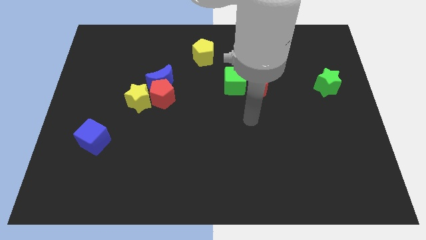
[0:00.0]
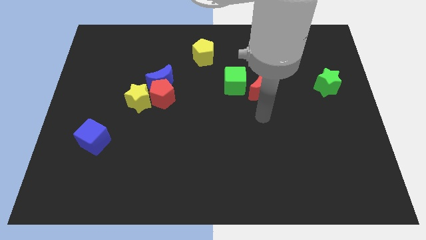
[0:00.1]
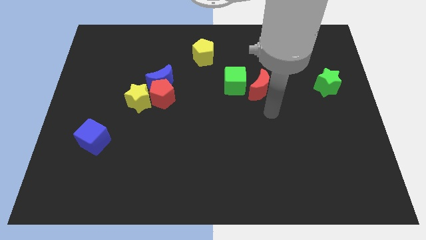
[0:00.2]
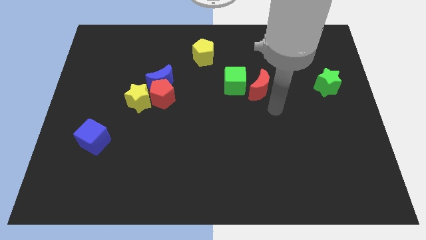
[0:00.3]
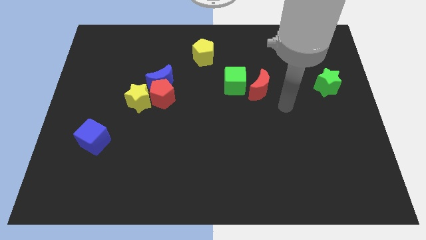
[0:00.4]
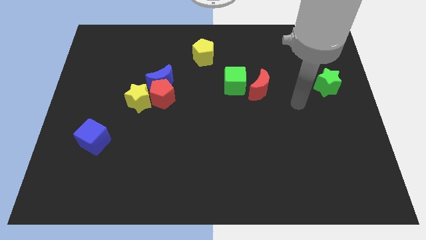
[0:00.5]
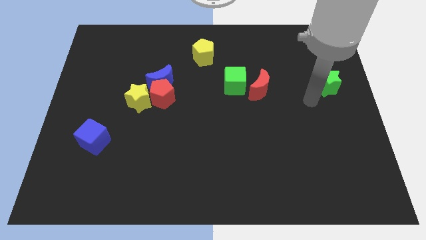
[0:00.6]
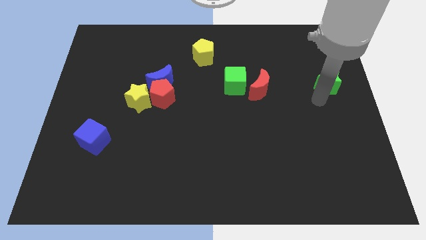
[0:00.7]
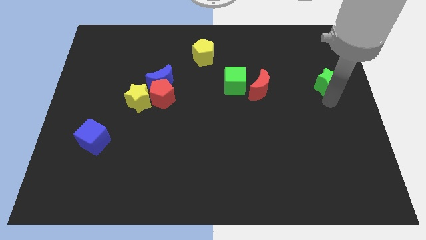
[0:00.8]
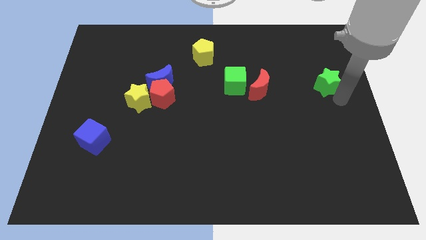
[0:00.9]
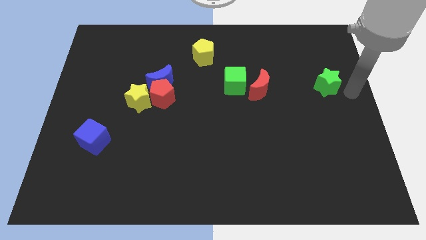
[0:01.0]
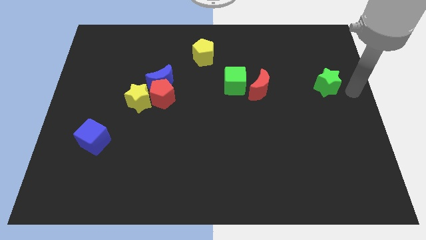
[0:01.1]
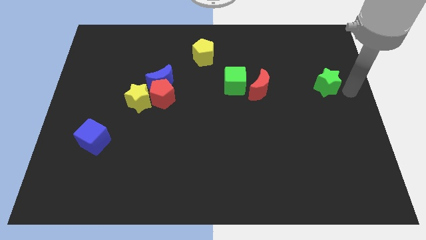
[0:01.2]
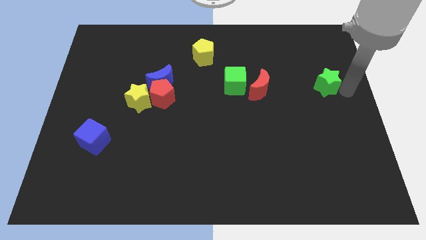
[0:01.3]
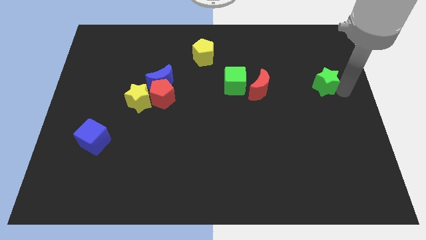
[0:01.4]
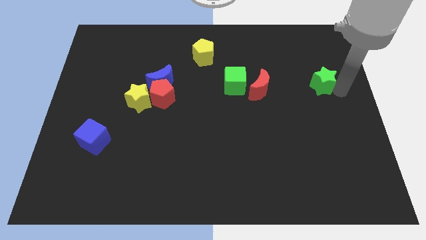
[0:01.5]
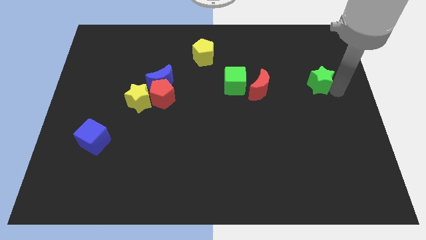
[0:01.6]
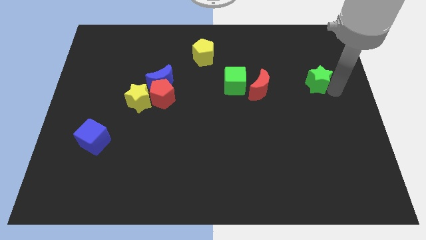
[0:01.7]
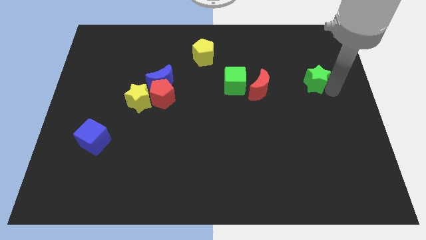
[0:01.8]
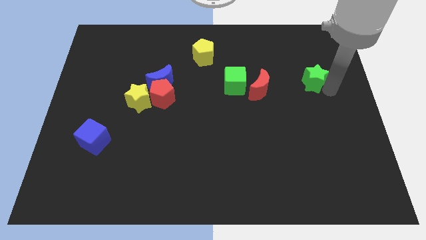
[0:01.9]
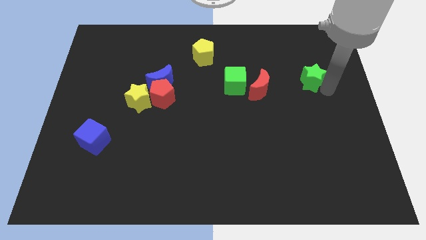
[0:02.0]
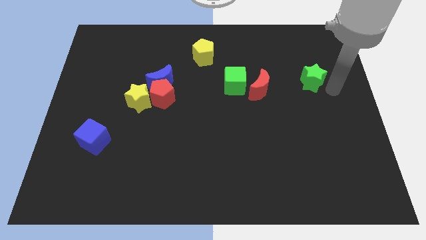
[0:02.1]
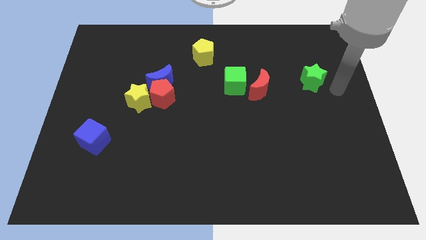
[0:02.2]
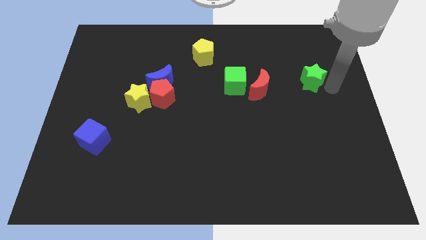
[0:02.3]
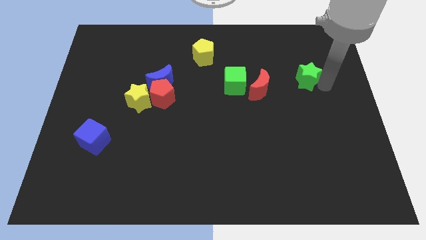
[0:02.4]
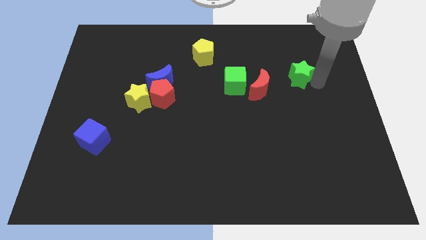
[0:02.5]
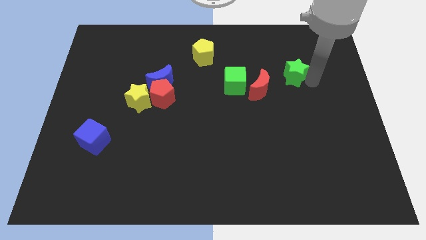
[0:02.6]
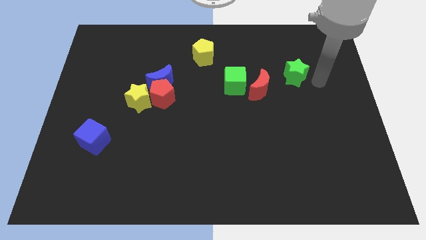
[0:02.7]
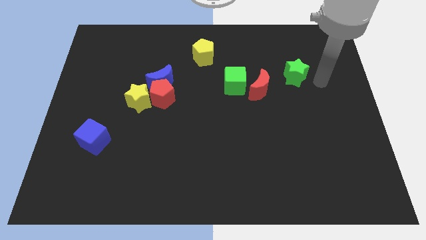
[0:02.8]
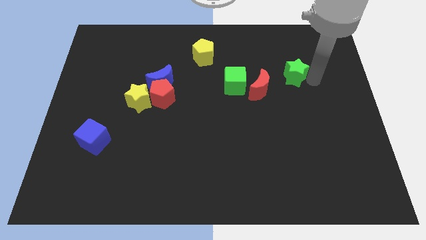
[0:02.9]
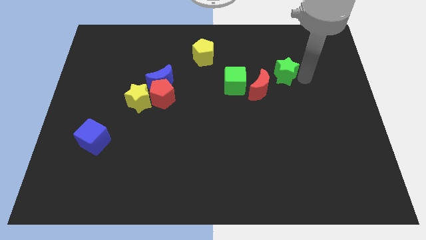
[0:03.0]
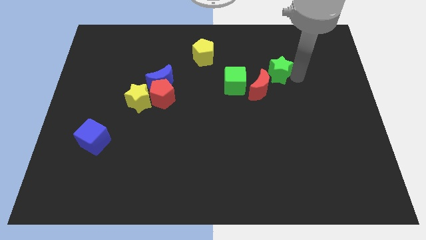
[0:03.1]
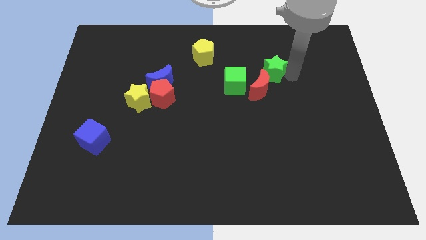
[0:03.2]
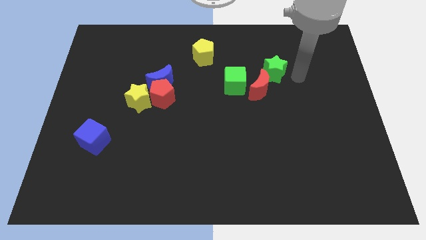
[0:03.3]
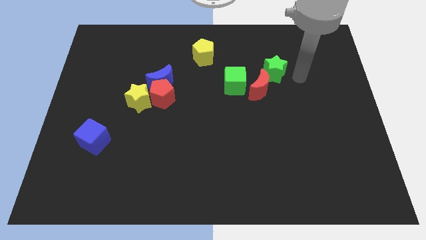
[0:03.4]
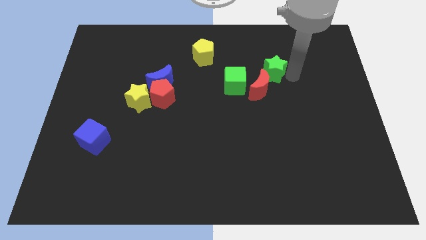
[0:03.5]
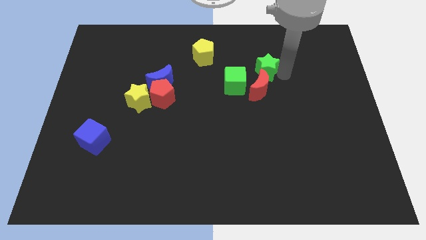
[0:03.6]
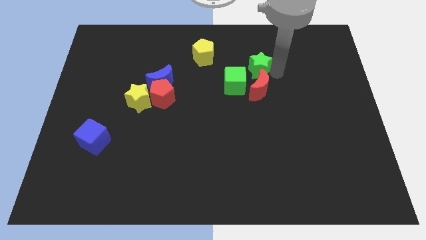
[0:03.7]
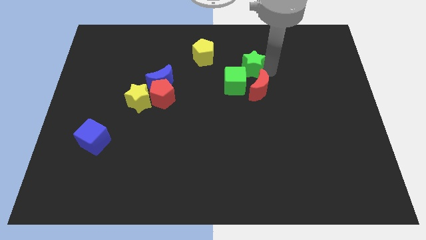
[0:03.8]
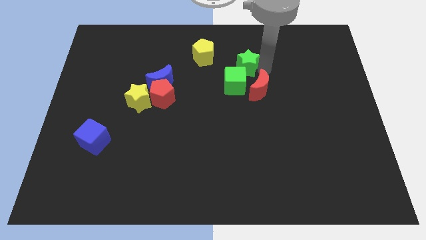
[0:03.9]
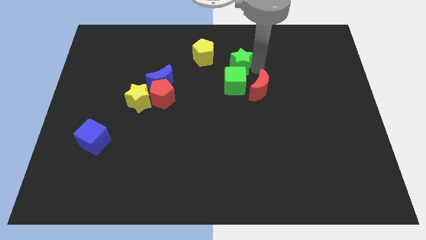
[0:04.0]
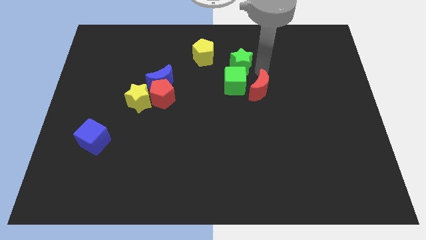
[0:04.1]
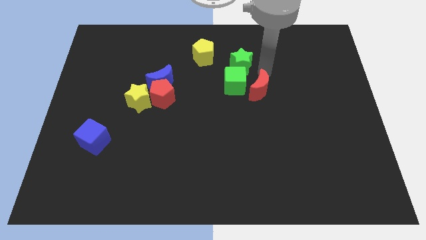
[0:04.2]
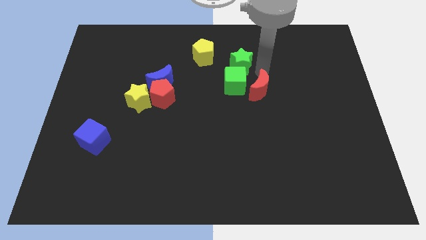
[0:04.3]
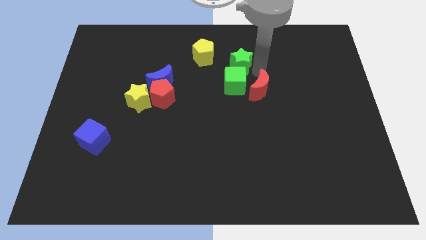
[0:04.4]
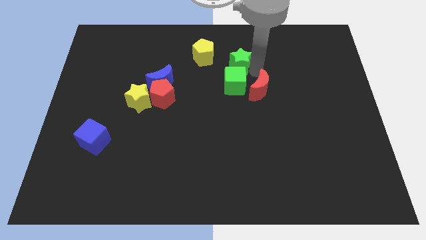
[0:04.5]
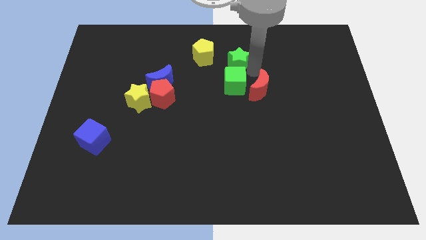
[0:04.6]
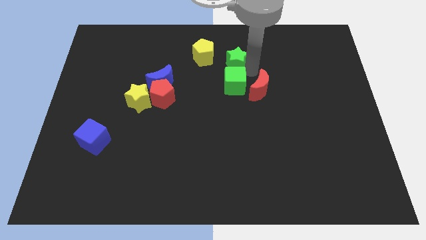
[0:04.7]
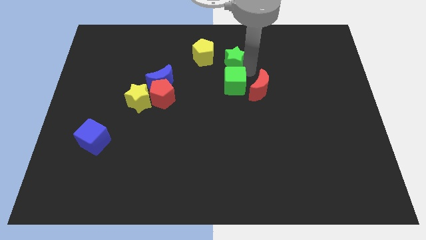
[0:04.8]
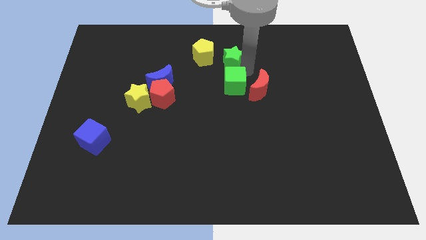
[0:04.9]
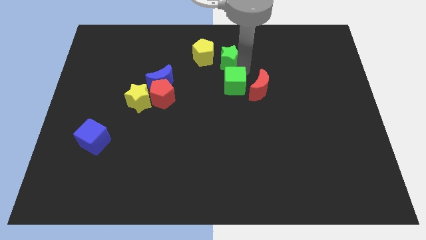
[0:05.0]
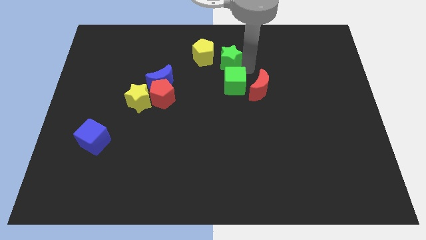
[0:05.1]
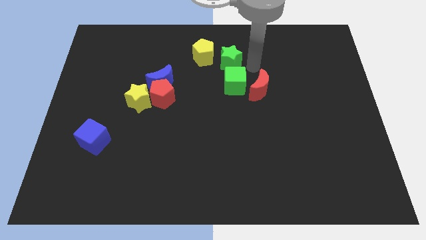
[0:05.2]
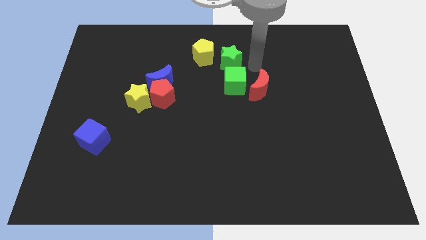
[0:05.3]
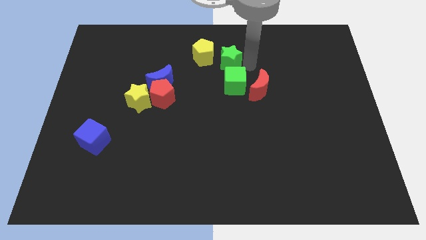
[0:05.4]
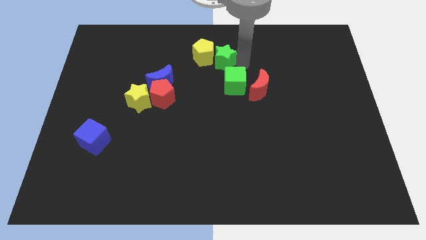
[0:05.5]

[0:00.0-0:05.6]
slide the green star next to the yellow pentagon

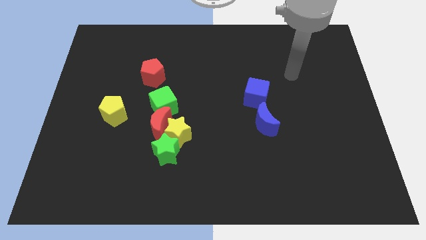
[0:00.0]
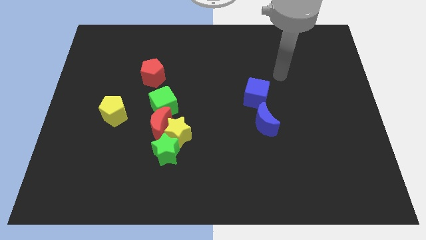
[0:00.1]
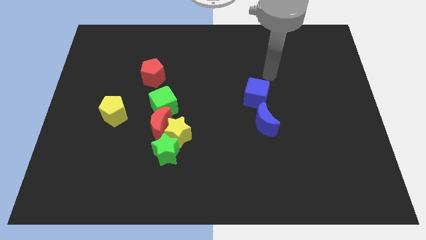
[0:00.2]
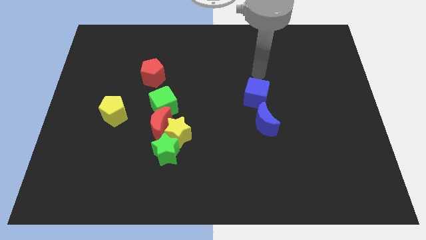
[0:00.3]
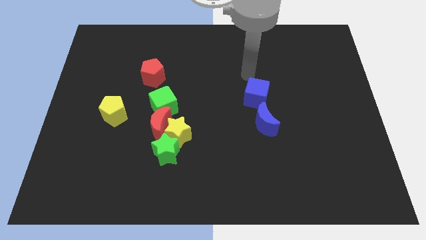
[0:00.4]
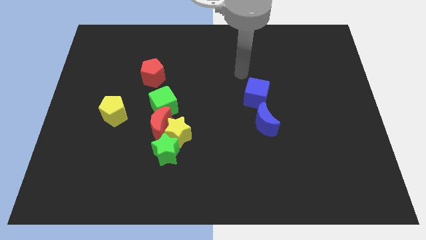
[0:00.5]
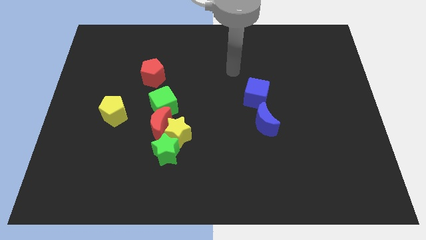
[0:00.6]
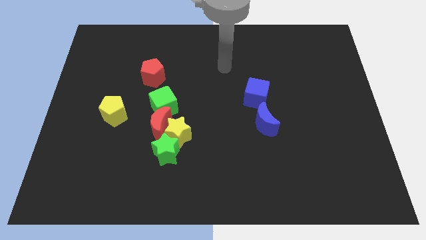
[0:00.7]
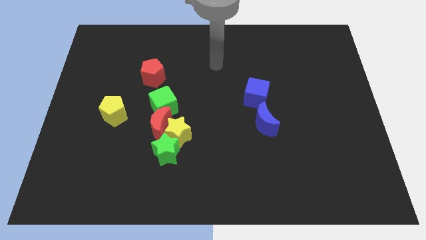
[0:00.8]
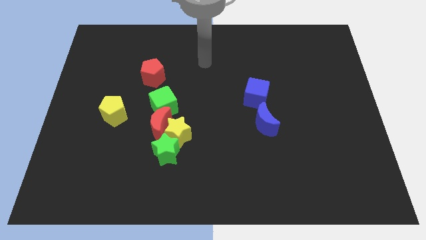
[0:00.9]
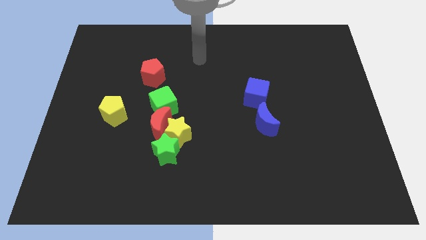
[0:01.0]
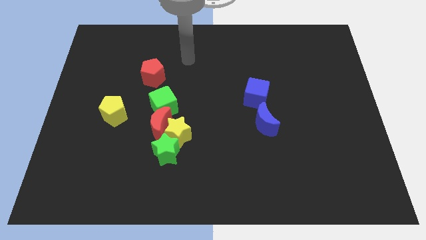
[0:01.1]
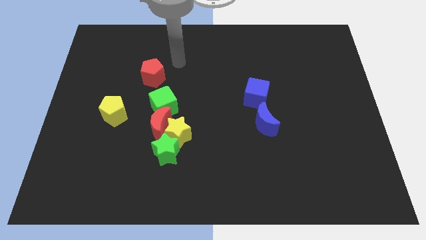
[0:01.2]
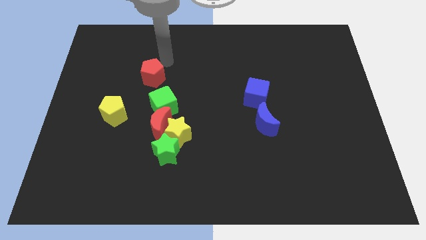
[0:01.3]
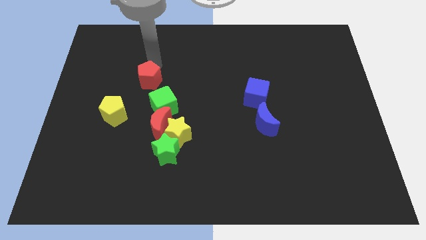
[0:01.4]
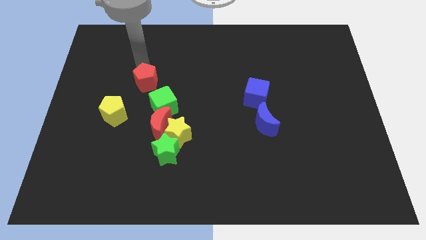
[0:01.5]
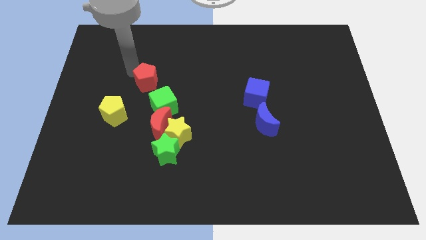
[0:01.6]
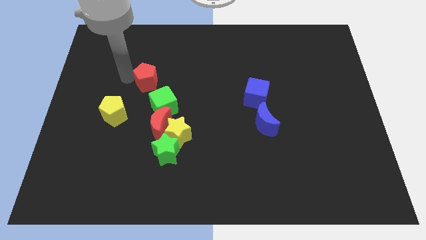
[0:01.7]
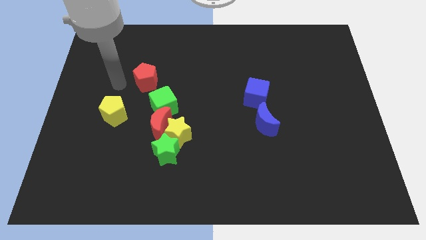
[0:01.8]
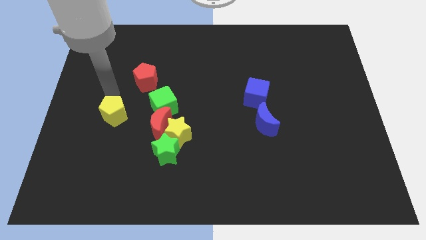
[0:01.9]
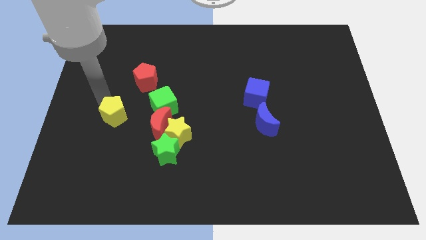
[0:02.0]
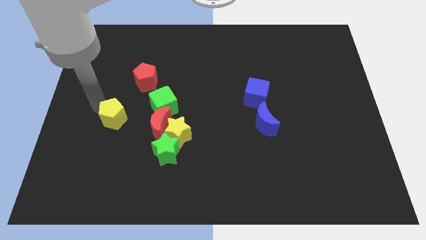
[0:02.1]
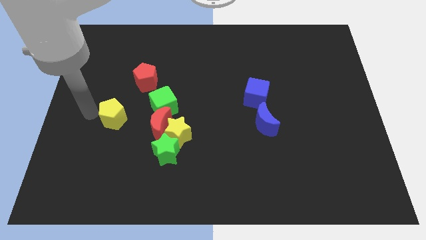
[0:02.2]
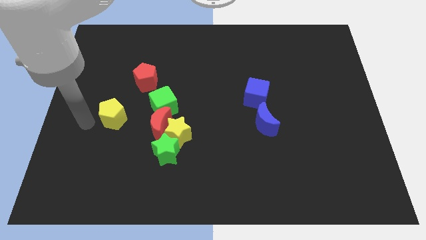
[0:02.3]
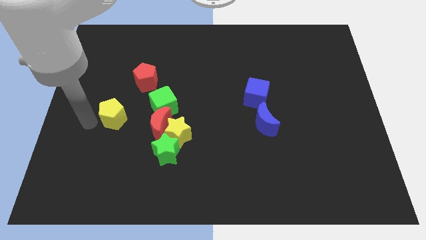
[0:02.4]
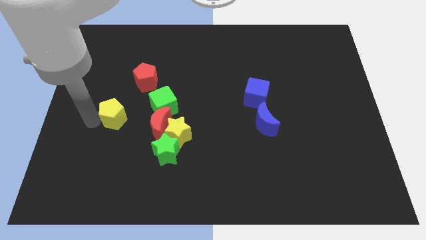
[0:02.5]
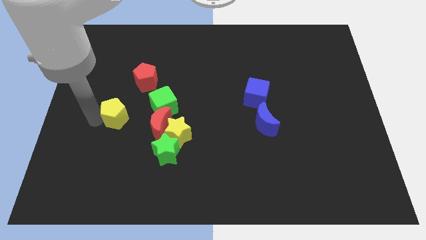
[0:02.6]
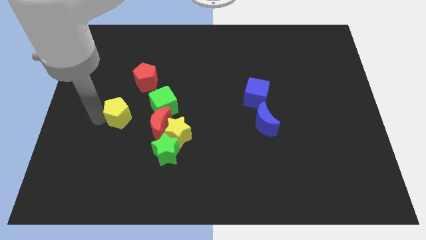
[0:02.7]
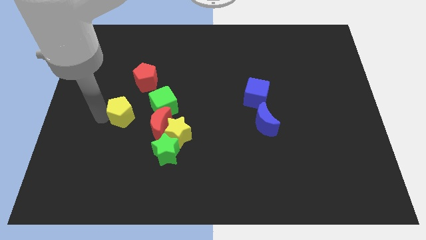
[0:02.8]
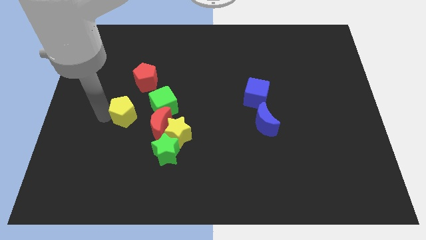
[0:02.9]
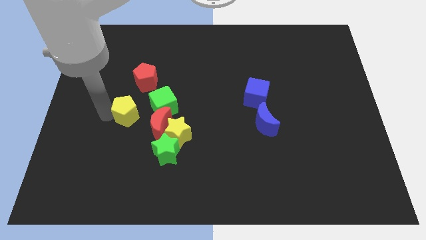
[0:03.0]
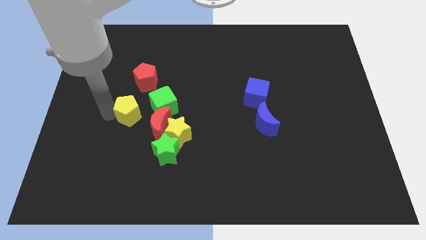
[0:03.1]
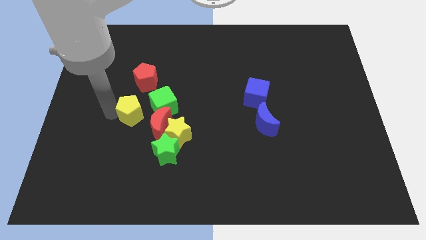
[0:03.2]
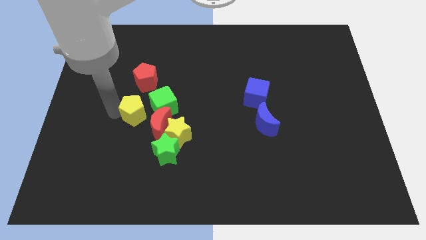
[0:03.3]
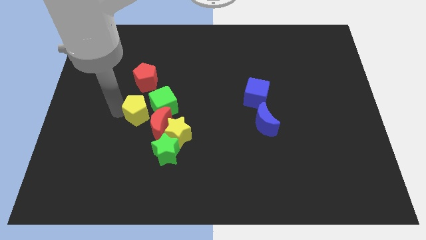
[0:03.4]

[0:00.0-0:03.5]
slide the yellow pentagon close to the green cube
